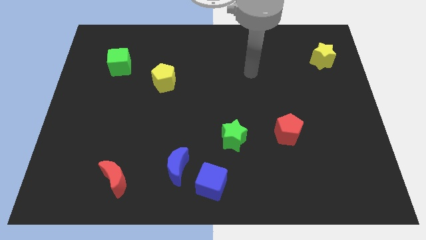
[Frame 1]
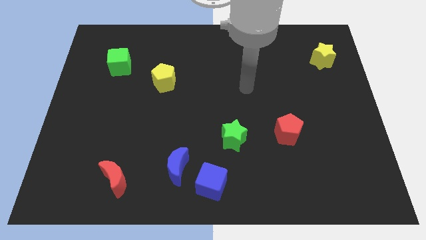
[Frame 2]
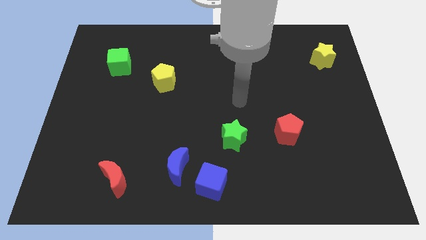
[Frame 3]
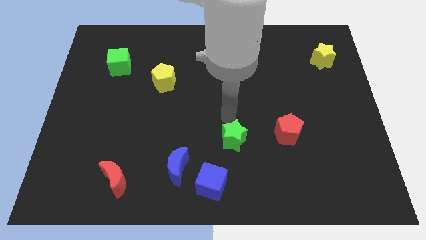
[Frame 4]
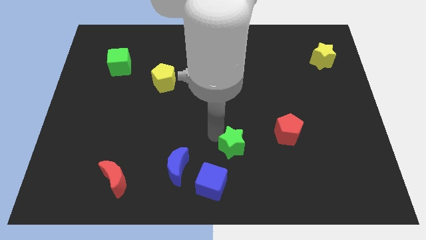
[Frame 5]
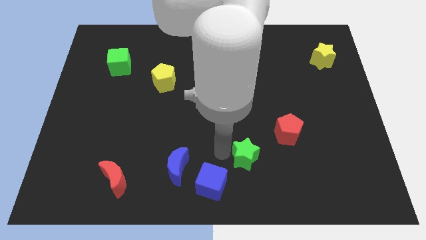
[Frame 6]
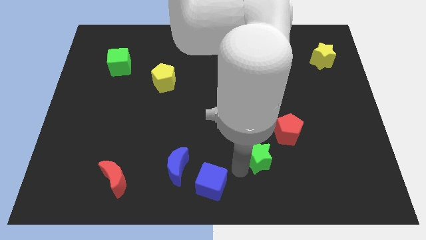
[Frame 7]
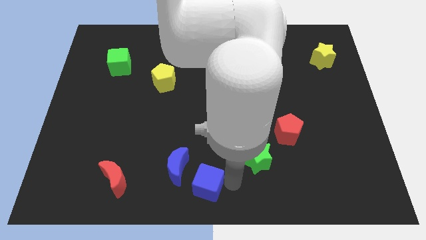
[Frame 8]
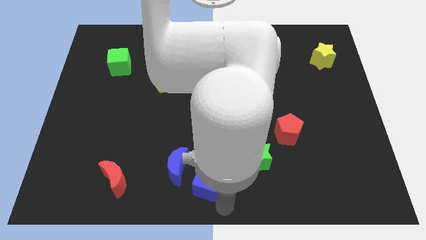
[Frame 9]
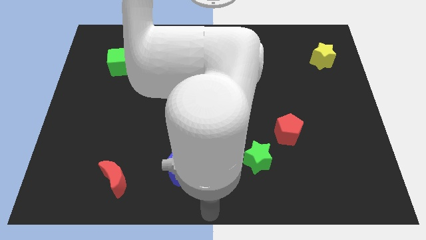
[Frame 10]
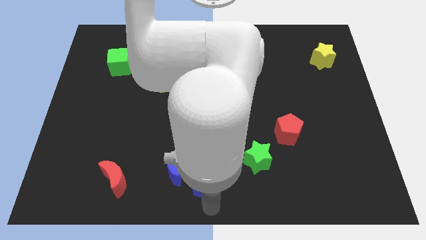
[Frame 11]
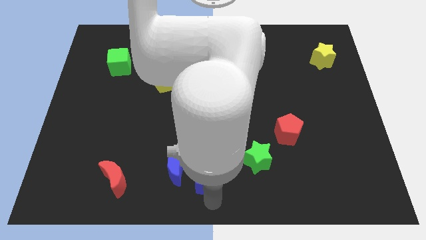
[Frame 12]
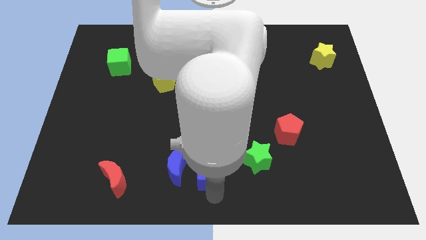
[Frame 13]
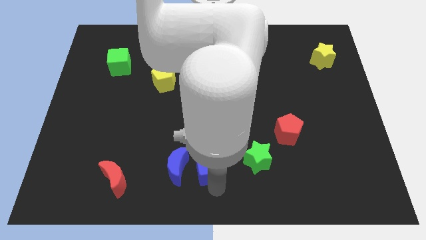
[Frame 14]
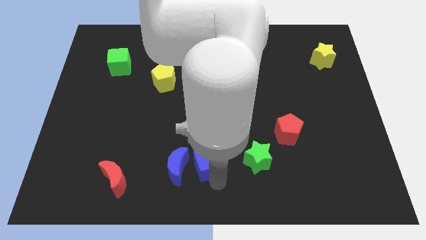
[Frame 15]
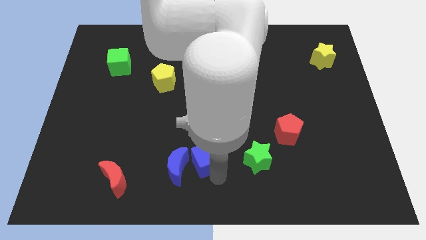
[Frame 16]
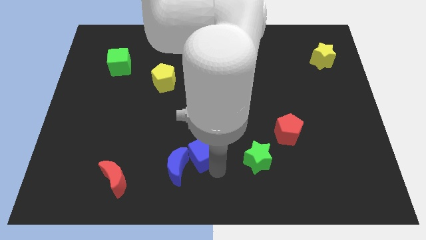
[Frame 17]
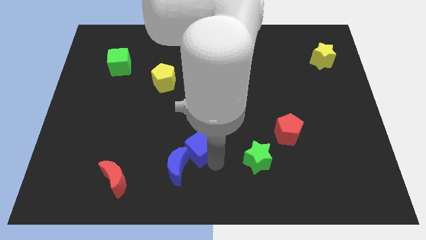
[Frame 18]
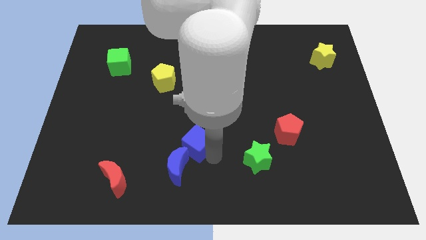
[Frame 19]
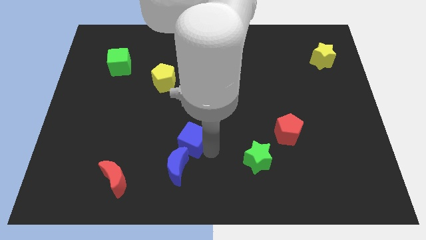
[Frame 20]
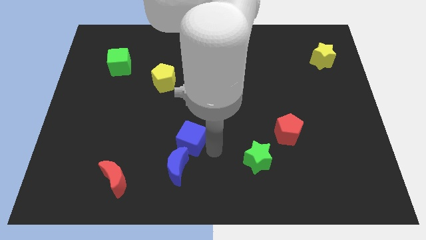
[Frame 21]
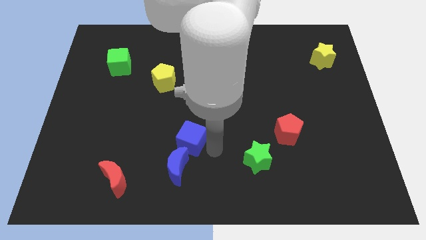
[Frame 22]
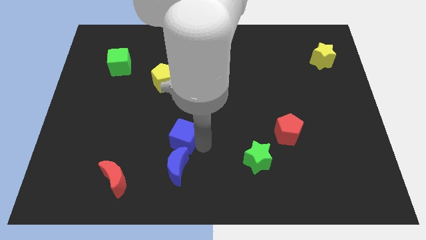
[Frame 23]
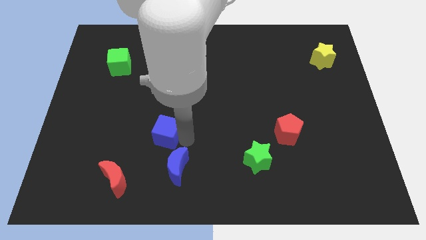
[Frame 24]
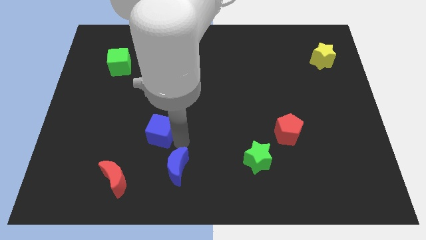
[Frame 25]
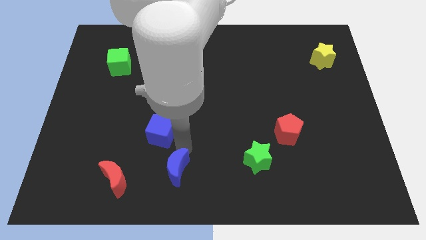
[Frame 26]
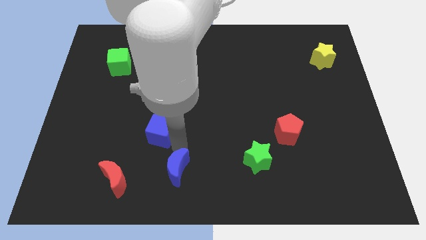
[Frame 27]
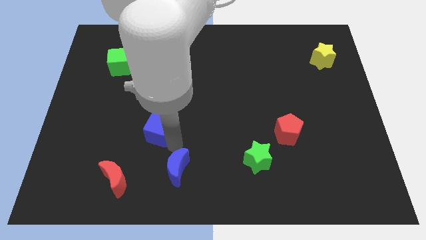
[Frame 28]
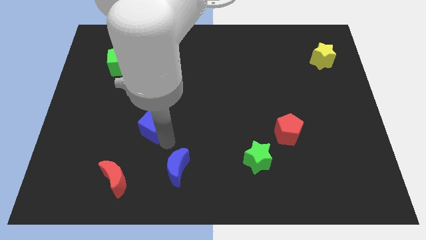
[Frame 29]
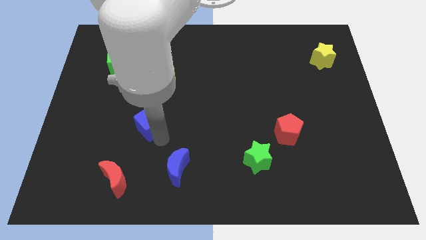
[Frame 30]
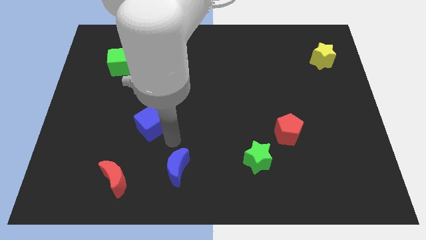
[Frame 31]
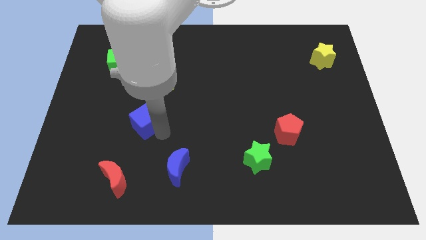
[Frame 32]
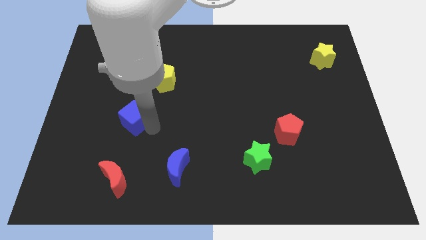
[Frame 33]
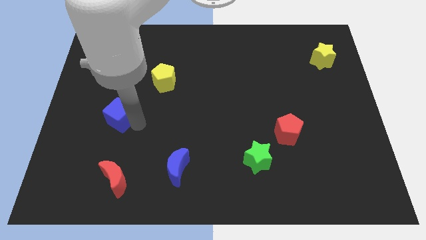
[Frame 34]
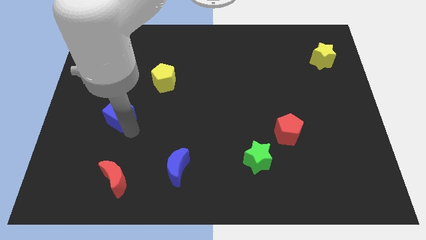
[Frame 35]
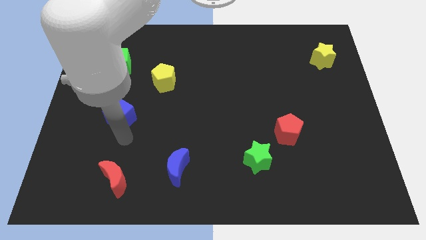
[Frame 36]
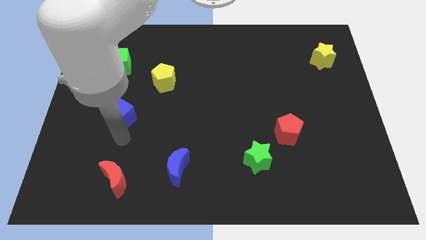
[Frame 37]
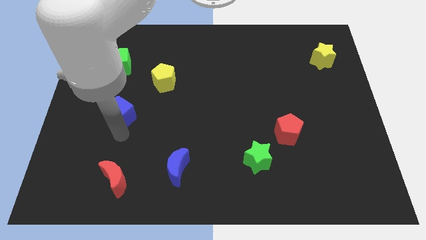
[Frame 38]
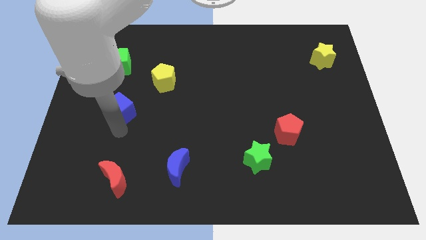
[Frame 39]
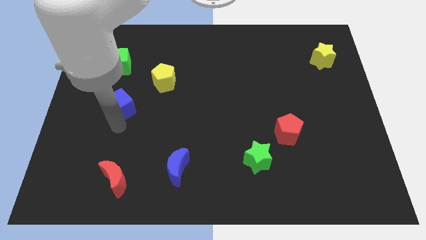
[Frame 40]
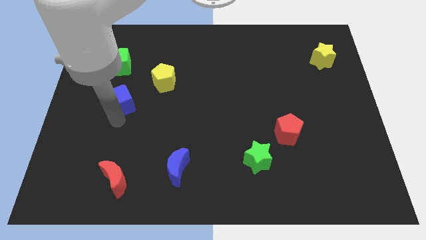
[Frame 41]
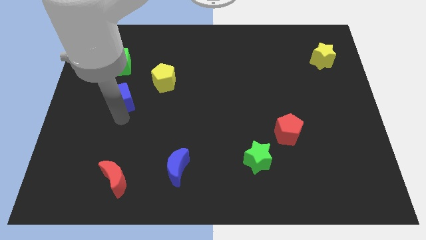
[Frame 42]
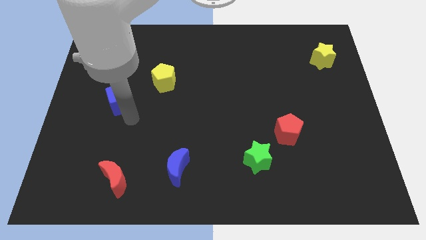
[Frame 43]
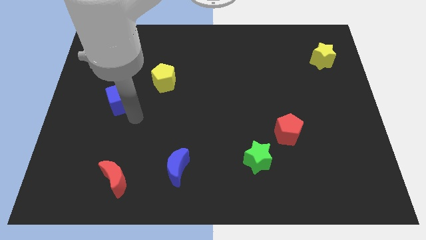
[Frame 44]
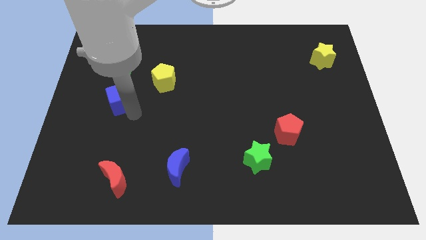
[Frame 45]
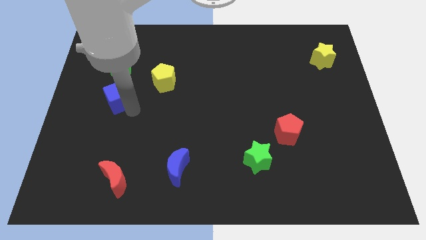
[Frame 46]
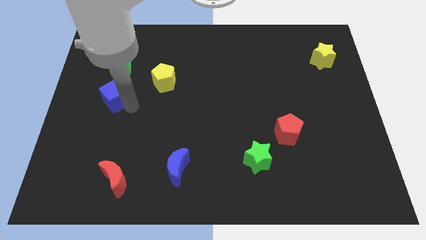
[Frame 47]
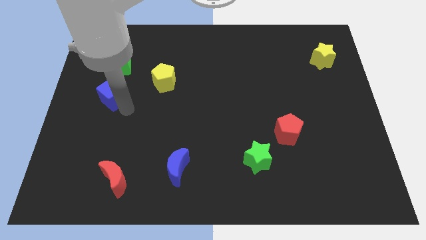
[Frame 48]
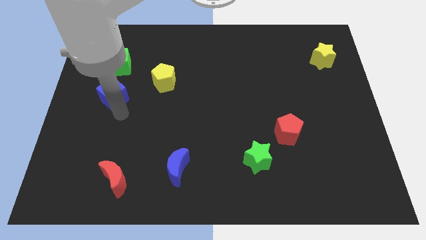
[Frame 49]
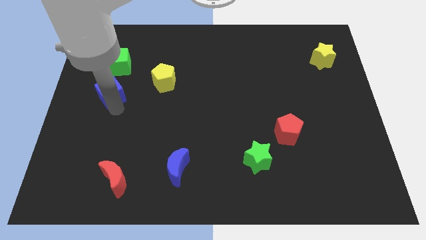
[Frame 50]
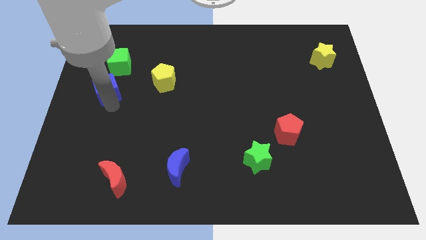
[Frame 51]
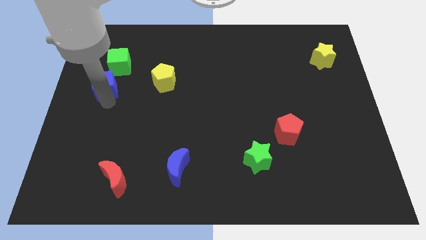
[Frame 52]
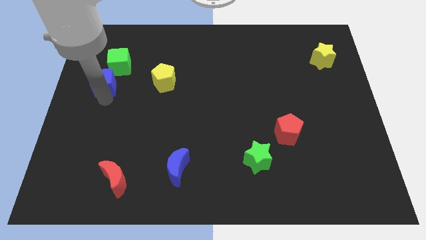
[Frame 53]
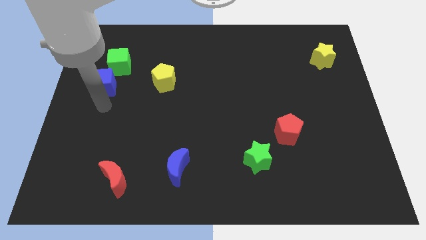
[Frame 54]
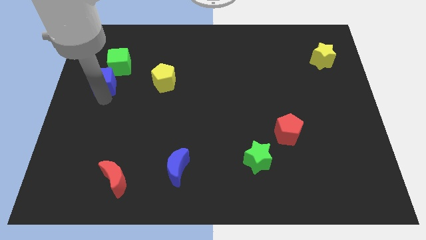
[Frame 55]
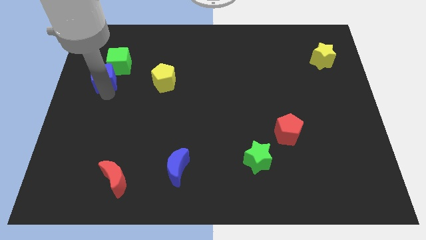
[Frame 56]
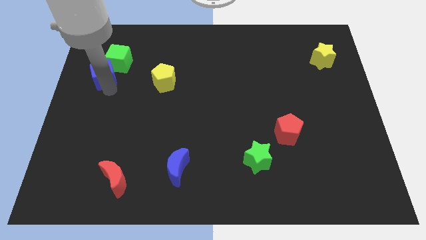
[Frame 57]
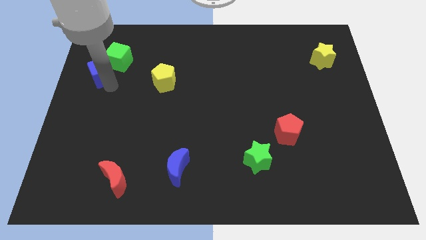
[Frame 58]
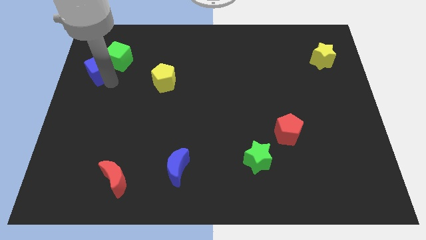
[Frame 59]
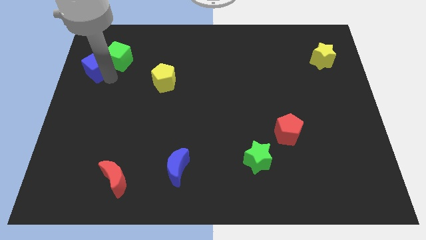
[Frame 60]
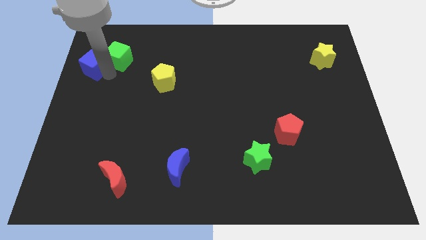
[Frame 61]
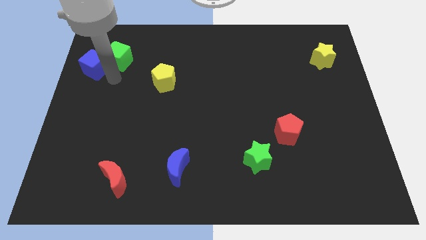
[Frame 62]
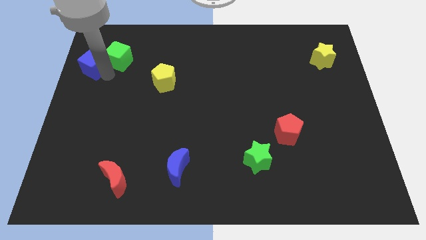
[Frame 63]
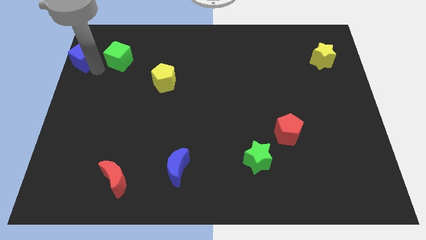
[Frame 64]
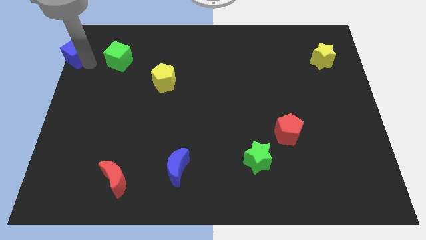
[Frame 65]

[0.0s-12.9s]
push the blue cube to the top left corner
